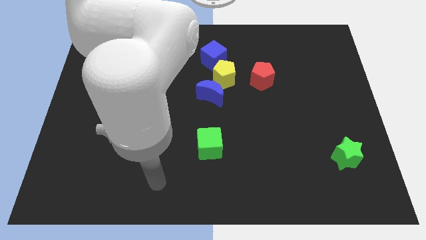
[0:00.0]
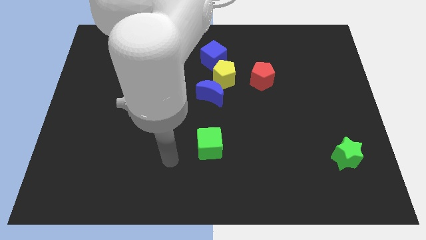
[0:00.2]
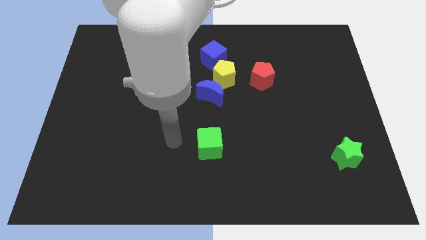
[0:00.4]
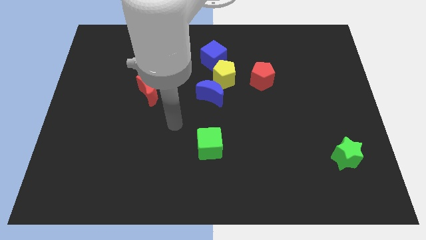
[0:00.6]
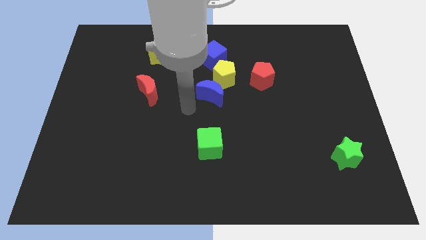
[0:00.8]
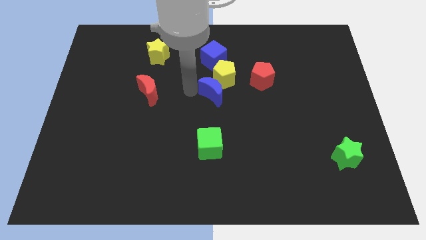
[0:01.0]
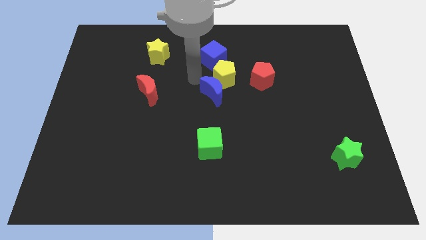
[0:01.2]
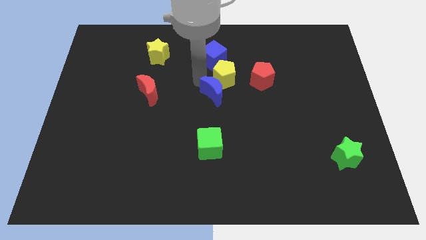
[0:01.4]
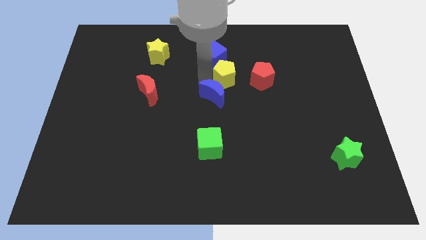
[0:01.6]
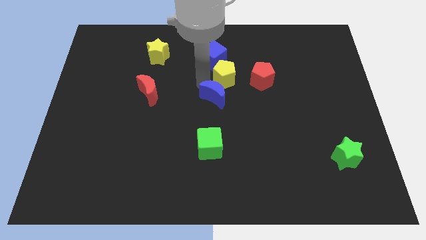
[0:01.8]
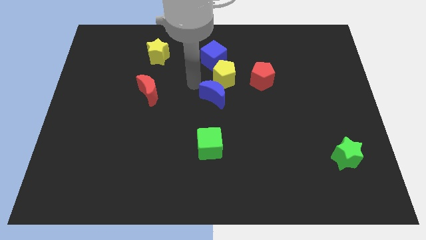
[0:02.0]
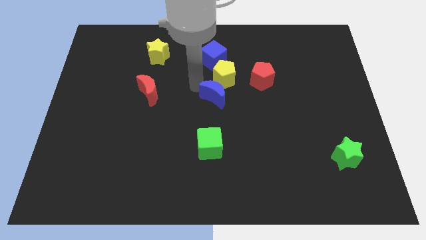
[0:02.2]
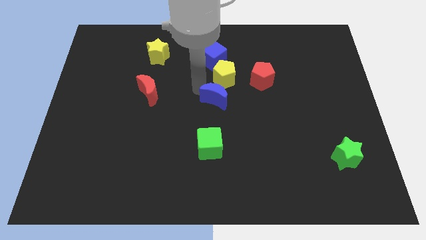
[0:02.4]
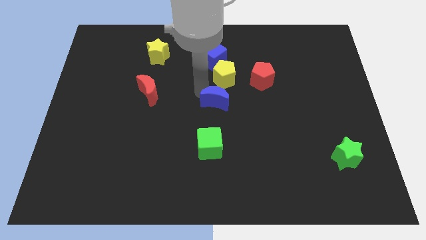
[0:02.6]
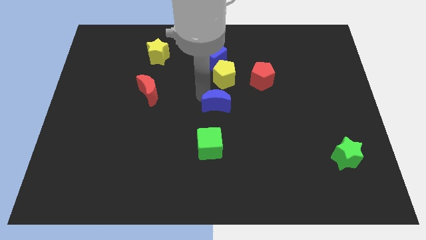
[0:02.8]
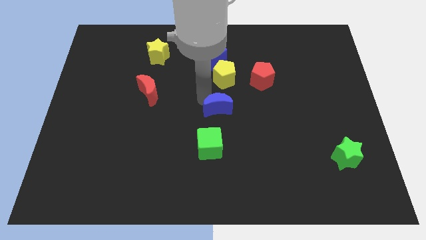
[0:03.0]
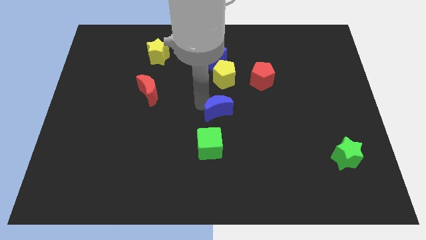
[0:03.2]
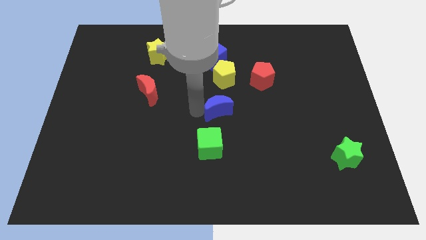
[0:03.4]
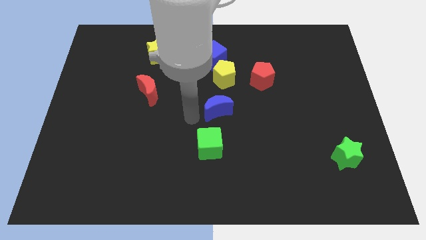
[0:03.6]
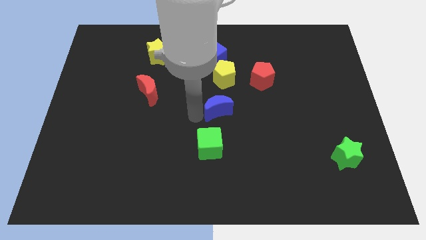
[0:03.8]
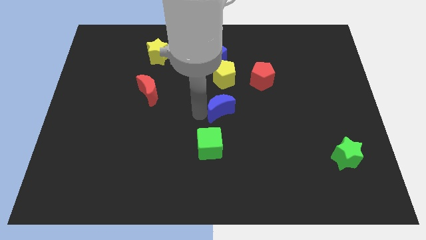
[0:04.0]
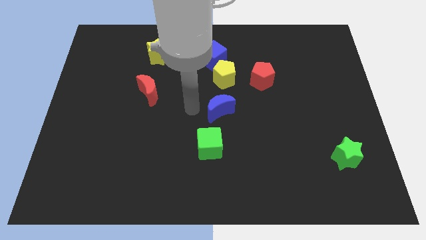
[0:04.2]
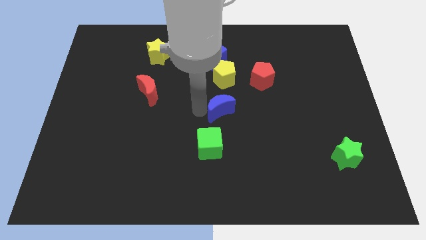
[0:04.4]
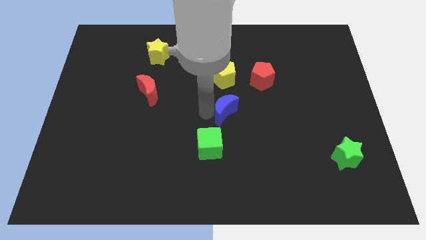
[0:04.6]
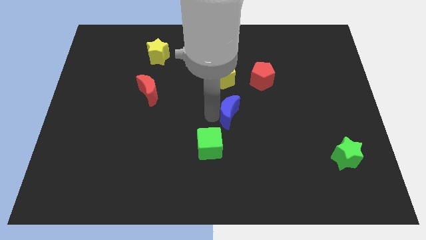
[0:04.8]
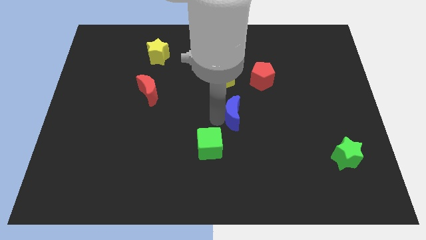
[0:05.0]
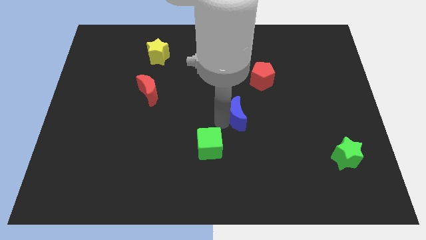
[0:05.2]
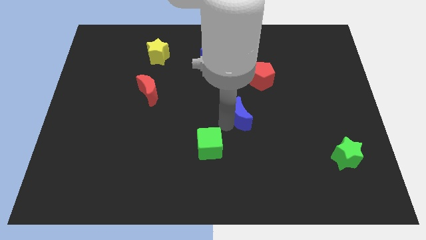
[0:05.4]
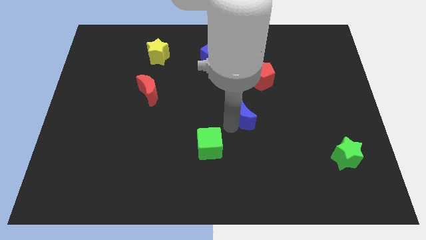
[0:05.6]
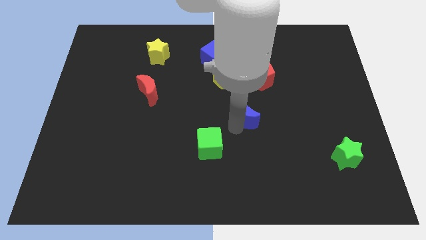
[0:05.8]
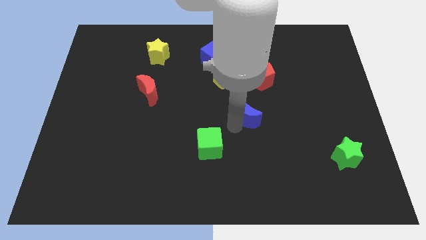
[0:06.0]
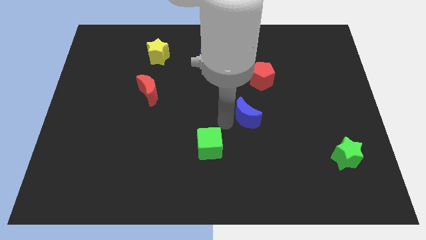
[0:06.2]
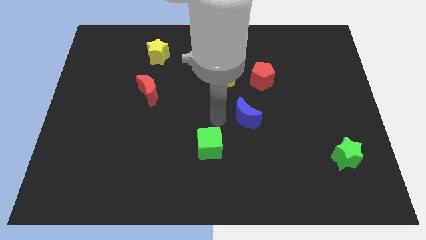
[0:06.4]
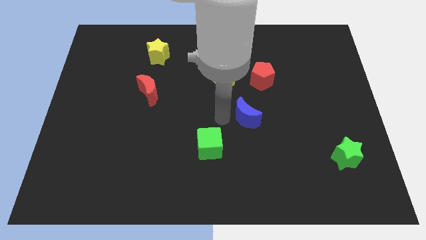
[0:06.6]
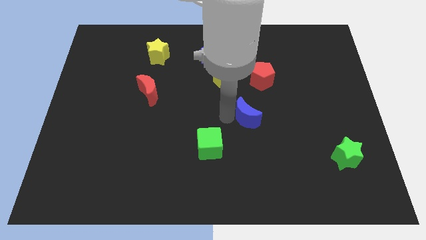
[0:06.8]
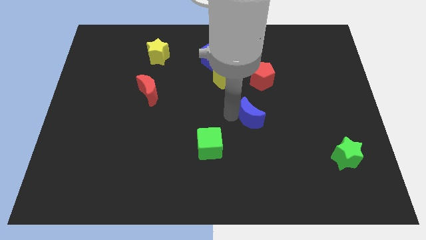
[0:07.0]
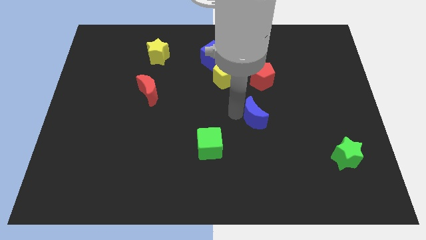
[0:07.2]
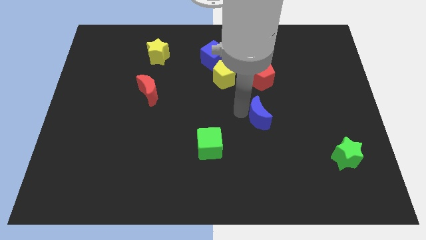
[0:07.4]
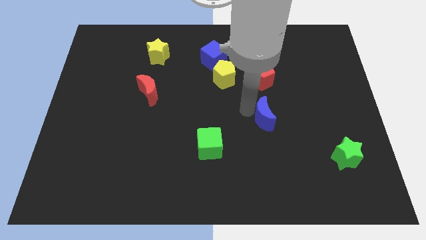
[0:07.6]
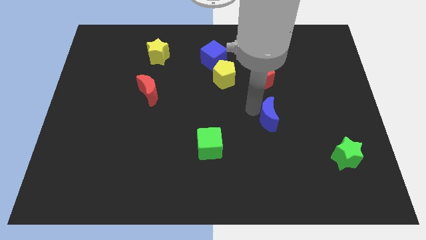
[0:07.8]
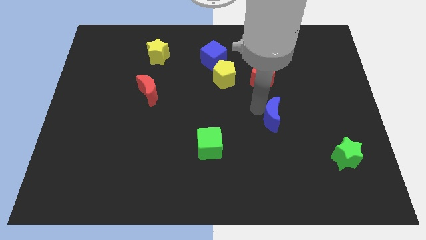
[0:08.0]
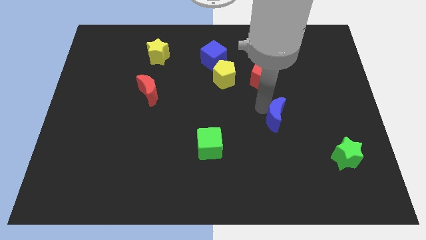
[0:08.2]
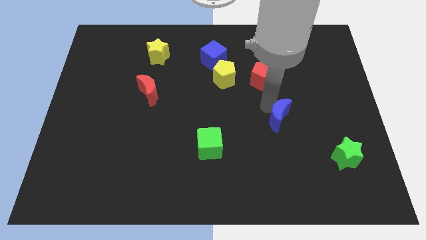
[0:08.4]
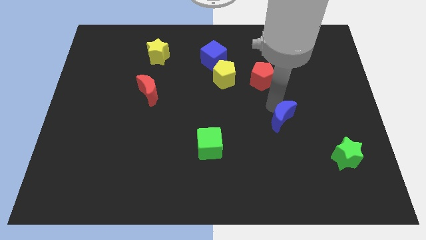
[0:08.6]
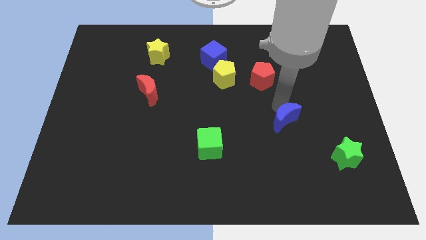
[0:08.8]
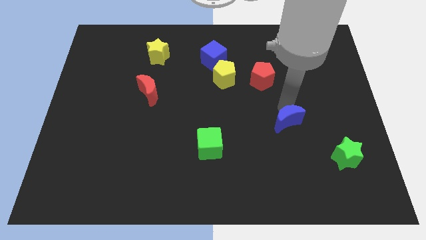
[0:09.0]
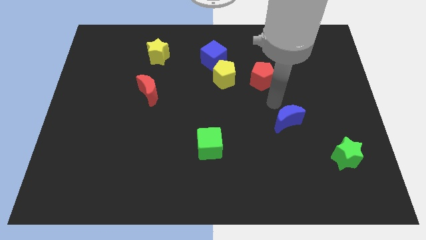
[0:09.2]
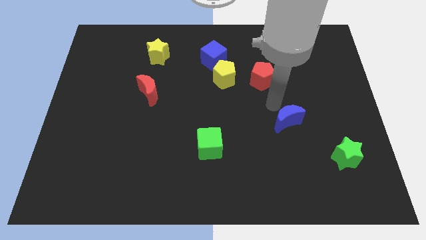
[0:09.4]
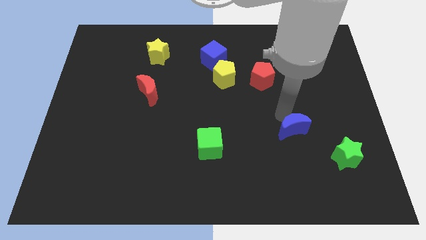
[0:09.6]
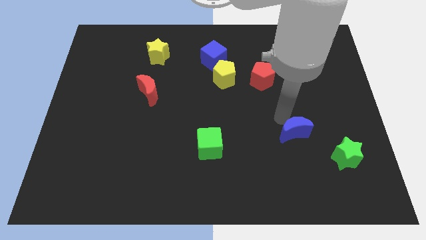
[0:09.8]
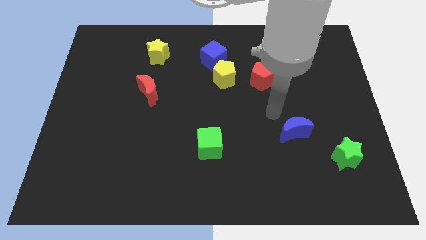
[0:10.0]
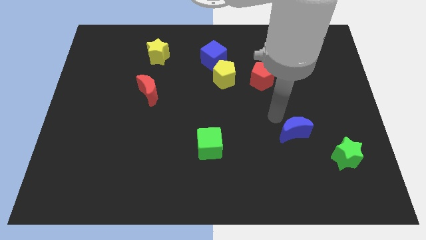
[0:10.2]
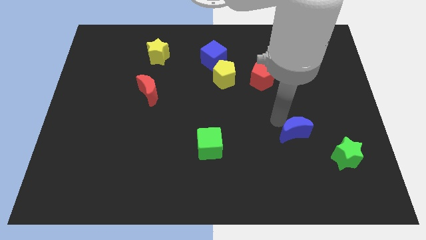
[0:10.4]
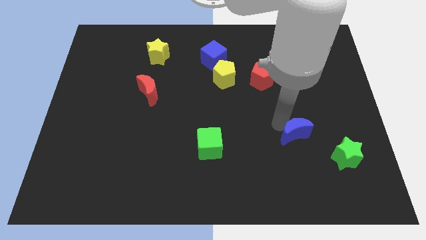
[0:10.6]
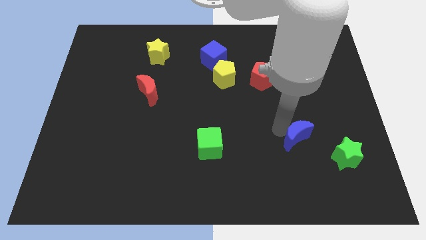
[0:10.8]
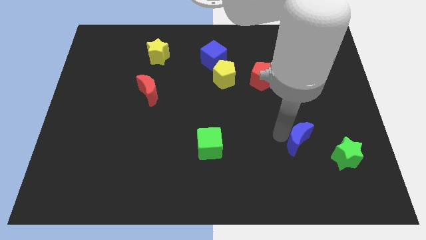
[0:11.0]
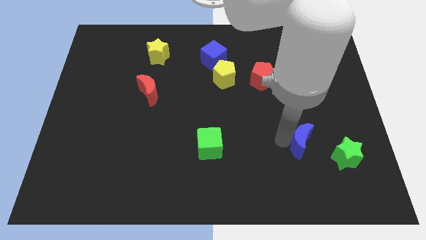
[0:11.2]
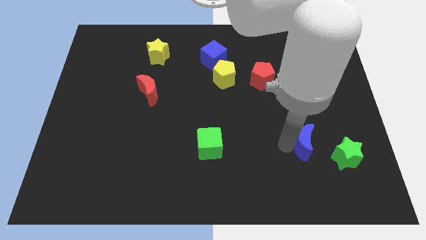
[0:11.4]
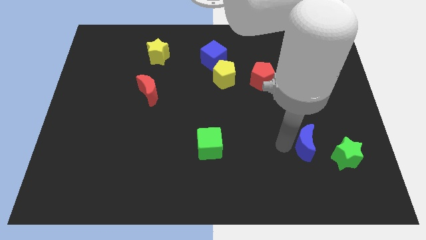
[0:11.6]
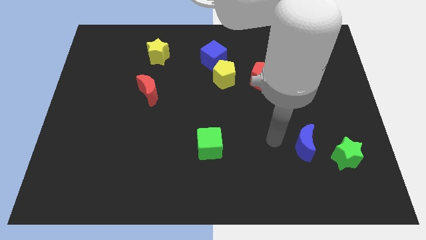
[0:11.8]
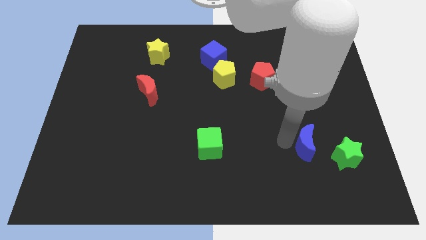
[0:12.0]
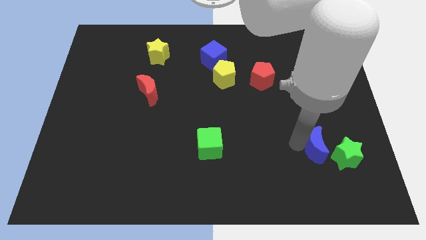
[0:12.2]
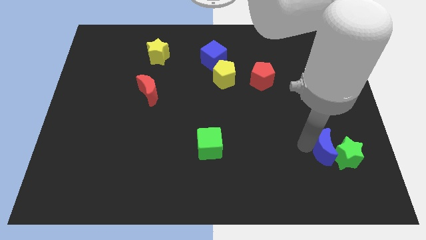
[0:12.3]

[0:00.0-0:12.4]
push the blue moon next to the green star

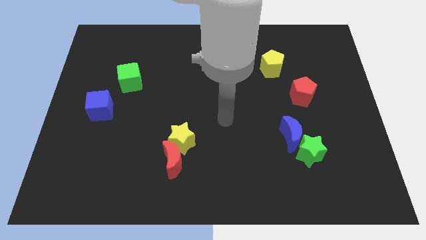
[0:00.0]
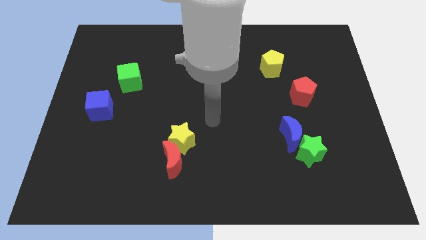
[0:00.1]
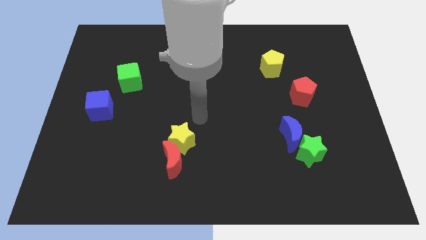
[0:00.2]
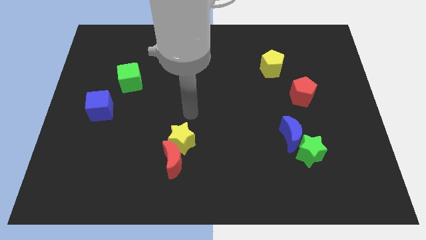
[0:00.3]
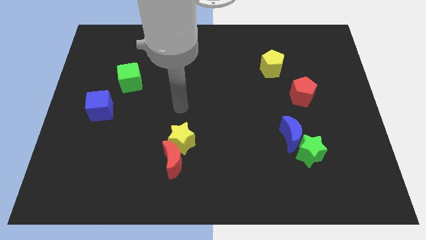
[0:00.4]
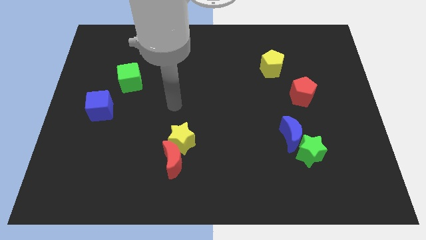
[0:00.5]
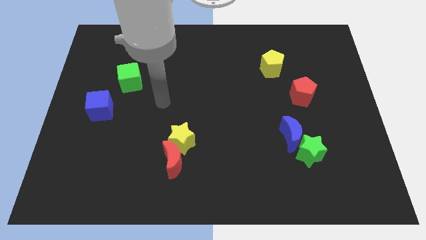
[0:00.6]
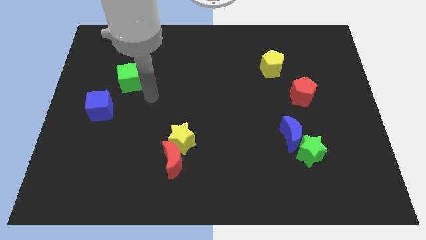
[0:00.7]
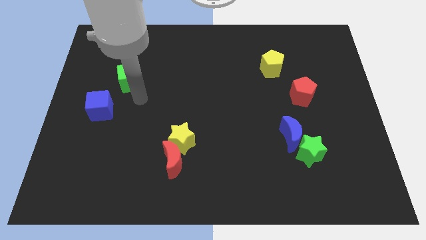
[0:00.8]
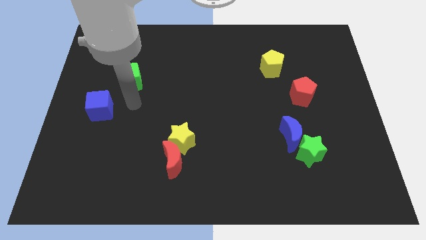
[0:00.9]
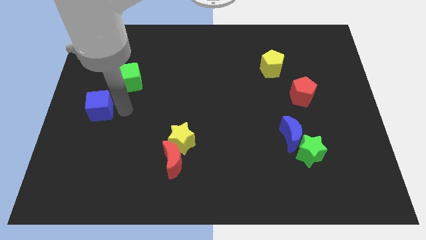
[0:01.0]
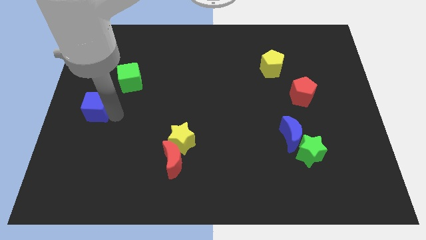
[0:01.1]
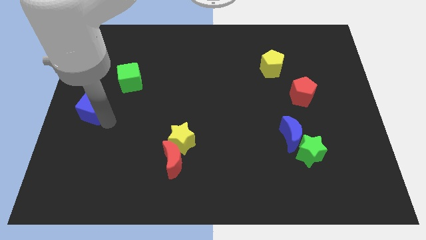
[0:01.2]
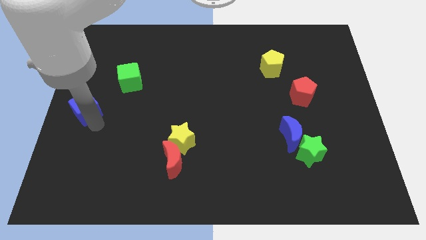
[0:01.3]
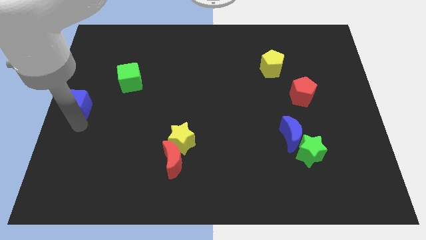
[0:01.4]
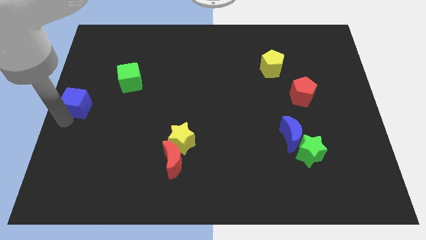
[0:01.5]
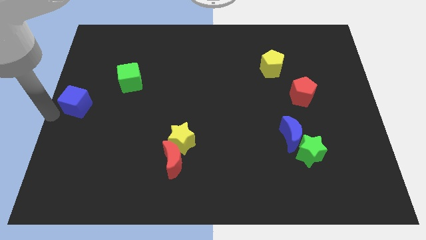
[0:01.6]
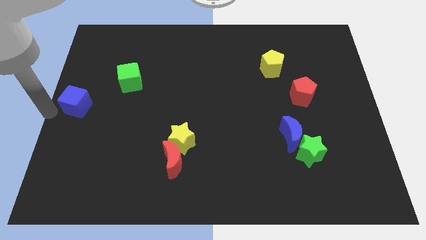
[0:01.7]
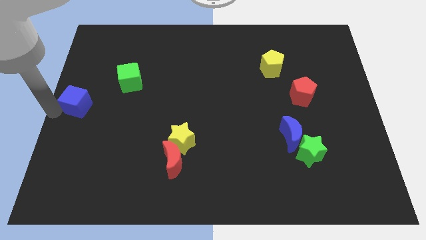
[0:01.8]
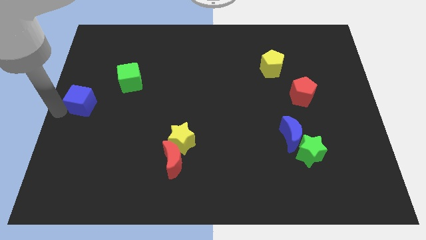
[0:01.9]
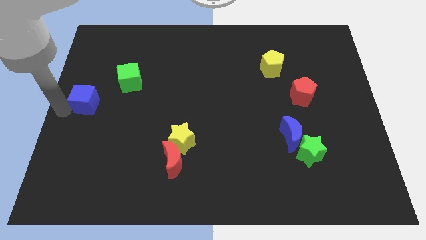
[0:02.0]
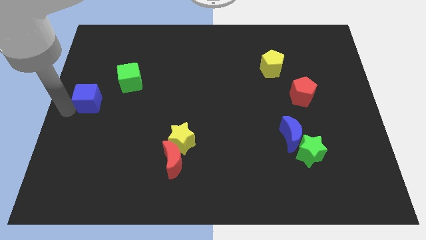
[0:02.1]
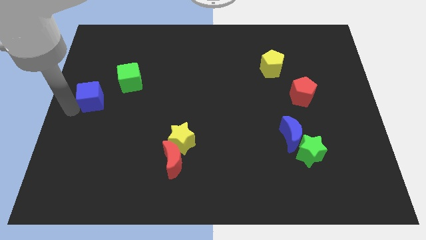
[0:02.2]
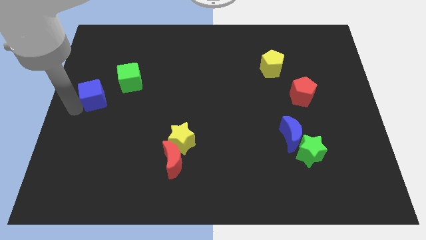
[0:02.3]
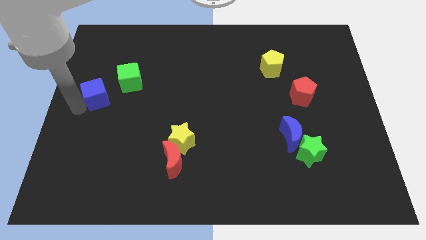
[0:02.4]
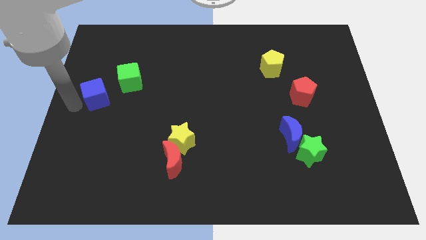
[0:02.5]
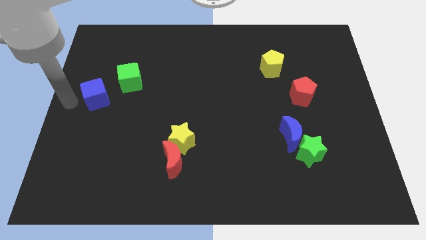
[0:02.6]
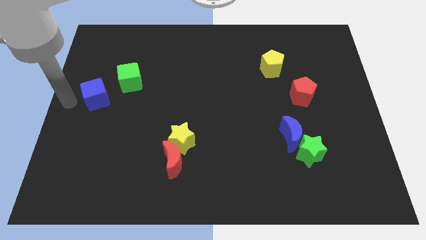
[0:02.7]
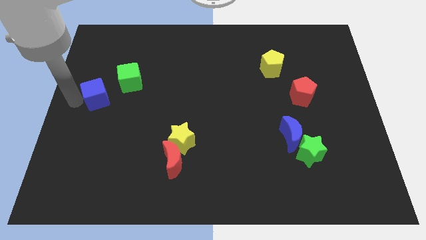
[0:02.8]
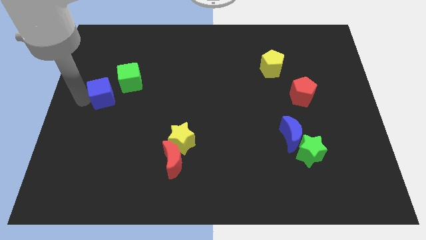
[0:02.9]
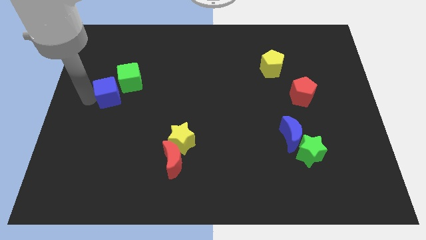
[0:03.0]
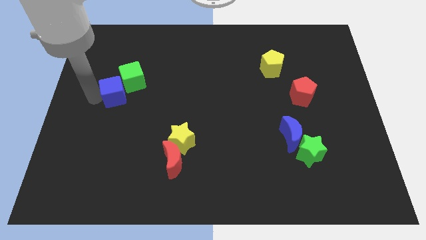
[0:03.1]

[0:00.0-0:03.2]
put the blue cube next to the green cube
